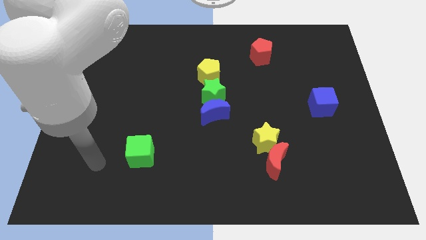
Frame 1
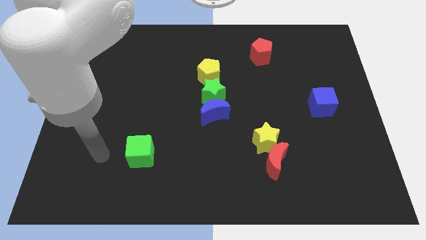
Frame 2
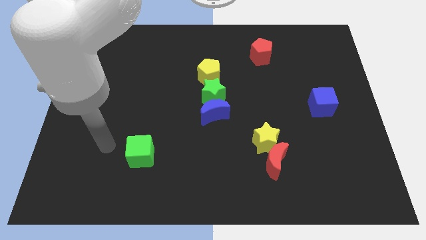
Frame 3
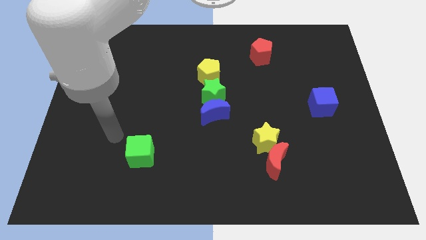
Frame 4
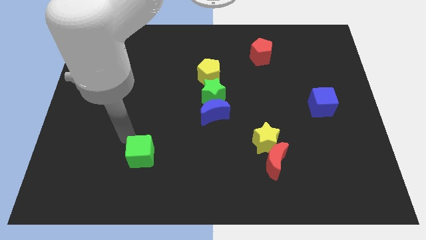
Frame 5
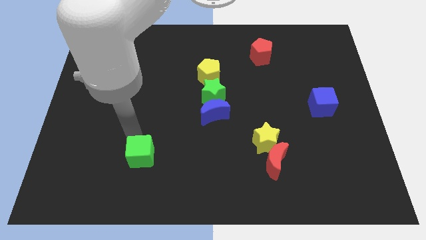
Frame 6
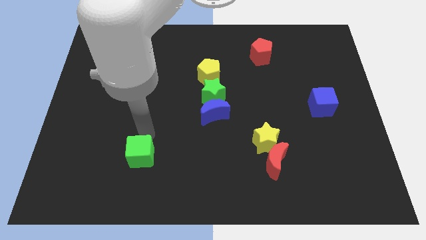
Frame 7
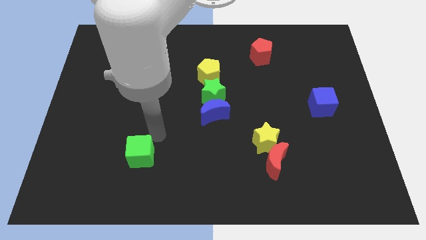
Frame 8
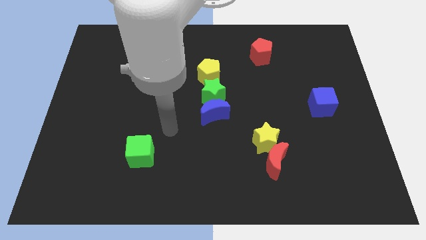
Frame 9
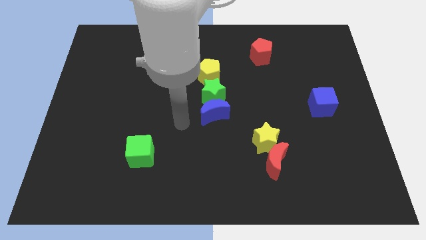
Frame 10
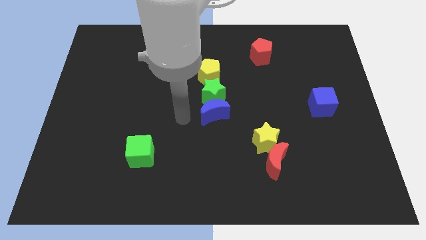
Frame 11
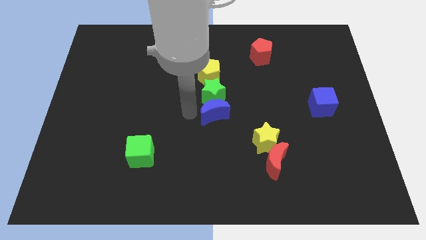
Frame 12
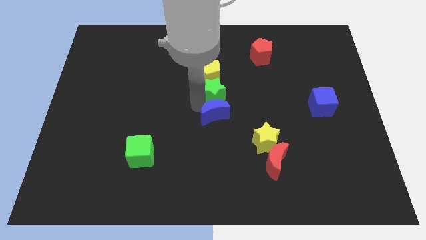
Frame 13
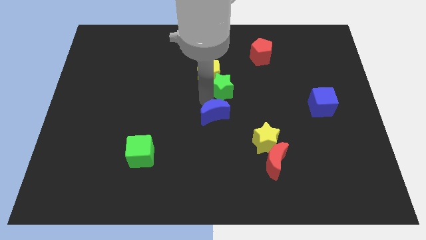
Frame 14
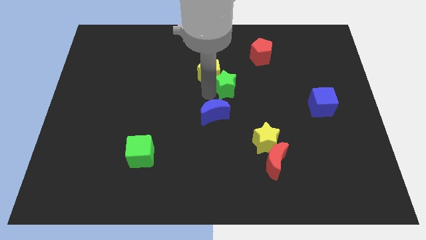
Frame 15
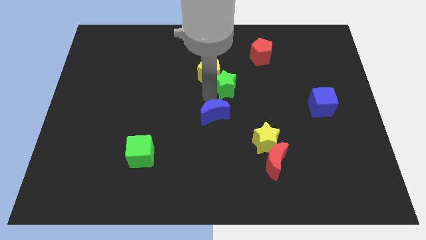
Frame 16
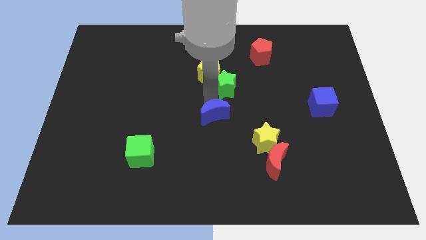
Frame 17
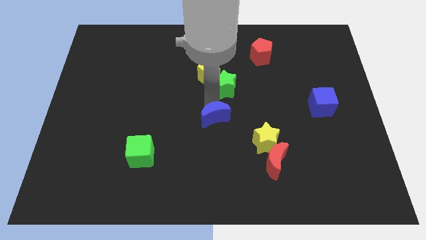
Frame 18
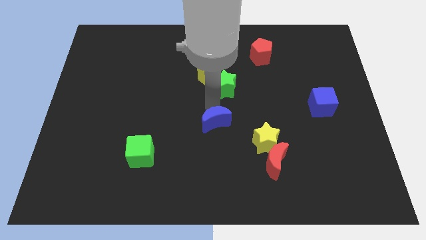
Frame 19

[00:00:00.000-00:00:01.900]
pull the blue moon apart from the green star

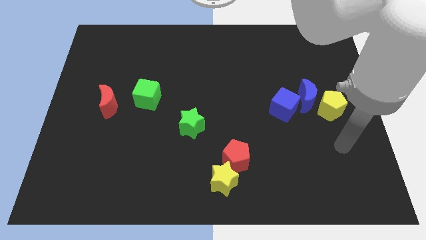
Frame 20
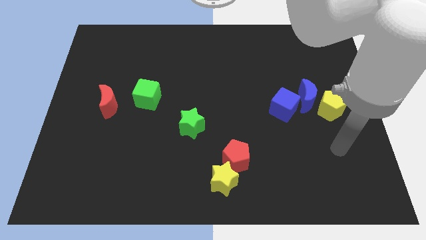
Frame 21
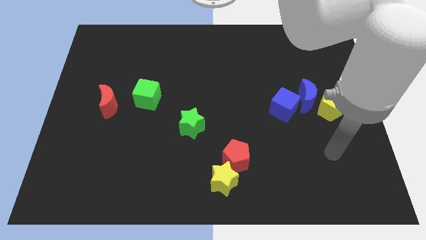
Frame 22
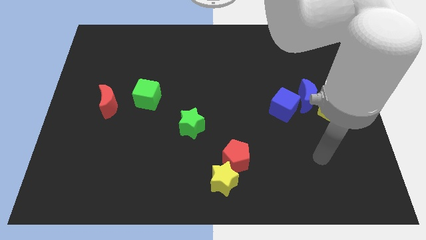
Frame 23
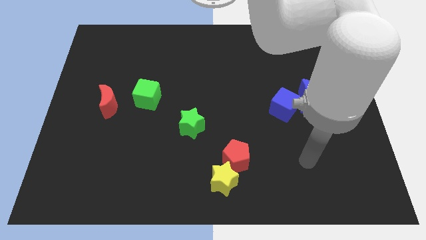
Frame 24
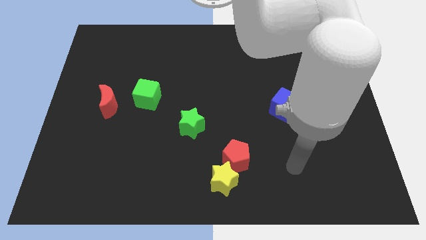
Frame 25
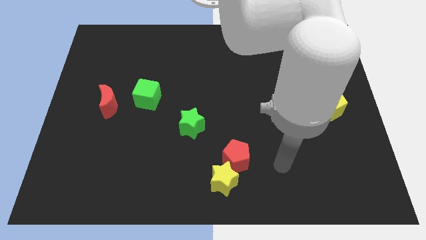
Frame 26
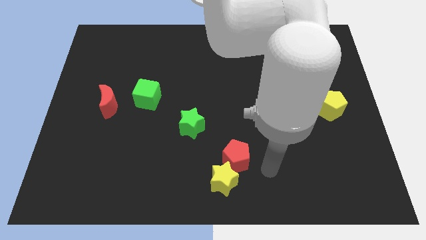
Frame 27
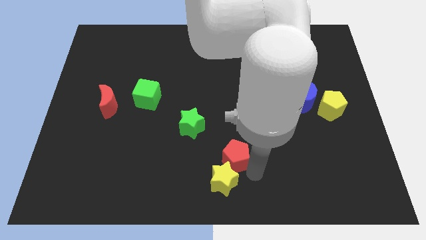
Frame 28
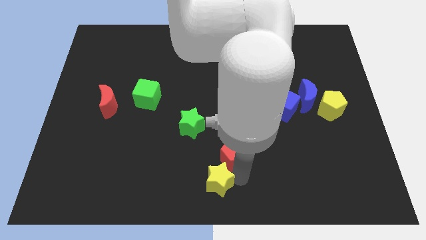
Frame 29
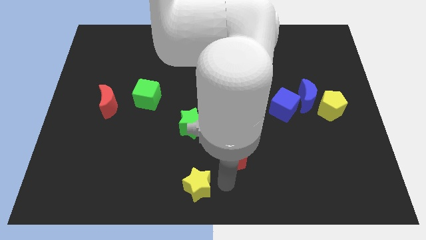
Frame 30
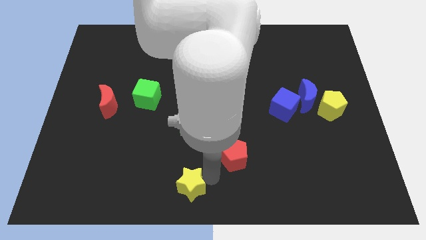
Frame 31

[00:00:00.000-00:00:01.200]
move the red pentagon away from the yellow star

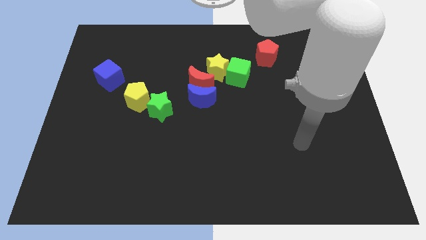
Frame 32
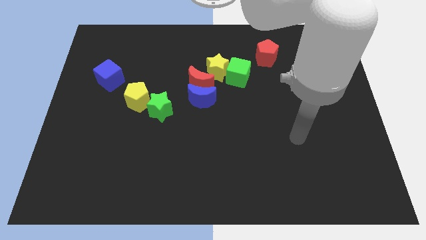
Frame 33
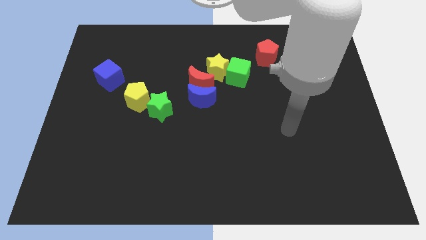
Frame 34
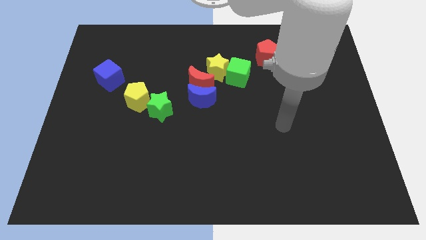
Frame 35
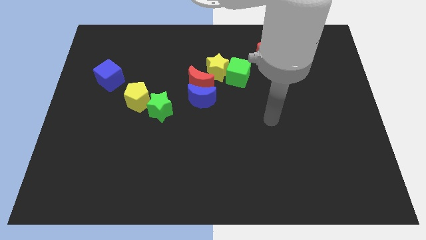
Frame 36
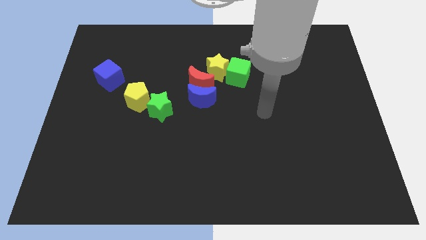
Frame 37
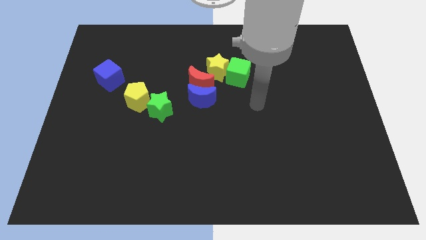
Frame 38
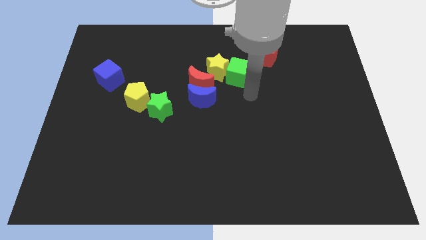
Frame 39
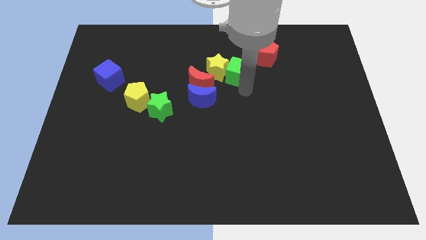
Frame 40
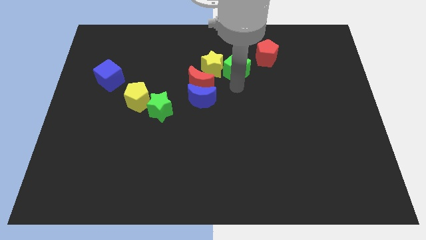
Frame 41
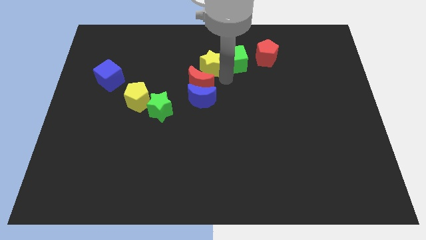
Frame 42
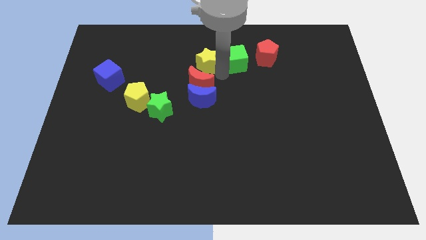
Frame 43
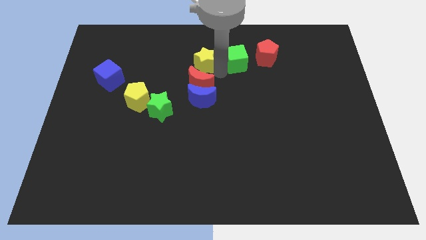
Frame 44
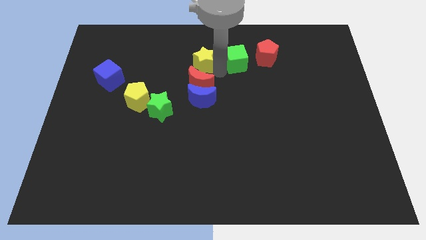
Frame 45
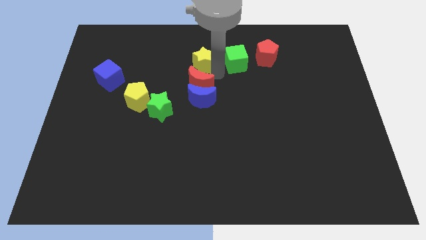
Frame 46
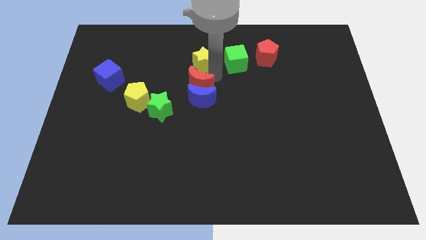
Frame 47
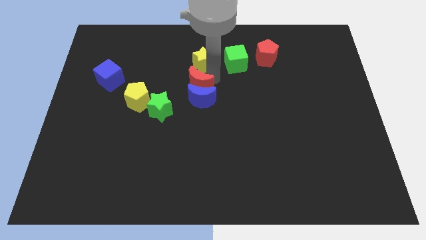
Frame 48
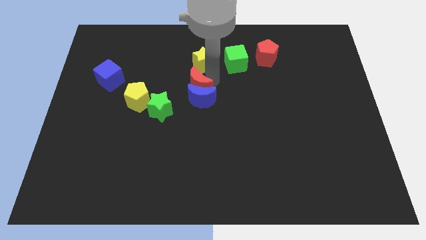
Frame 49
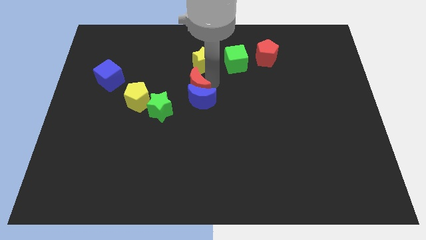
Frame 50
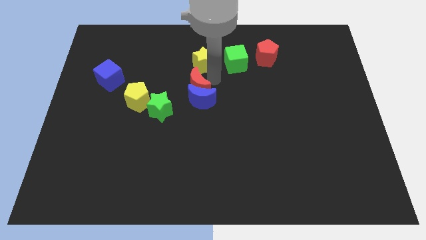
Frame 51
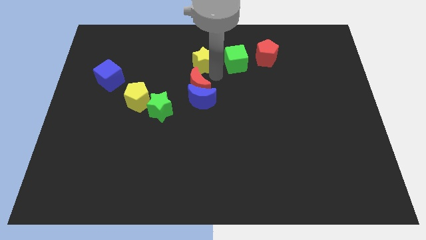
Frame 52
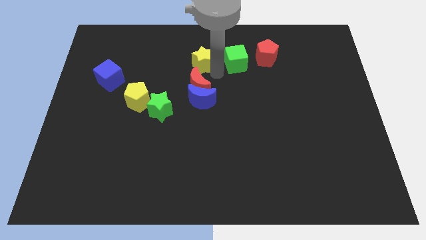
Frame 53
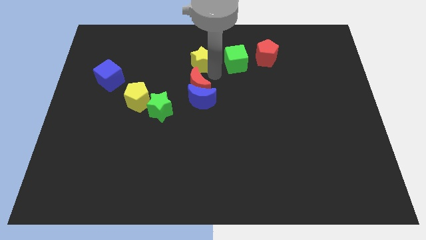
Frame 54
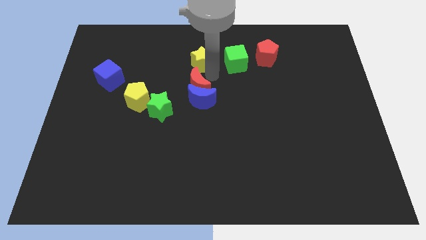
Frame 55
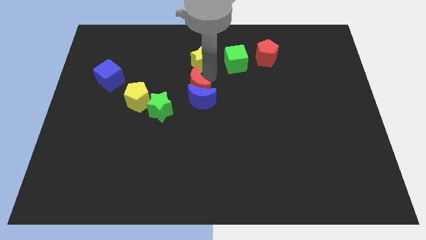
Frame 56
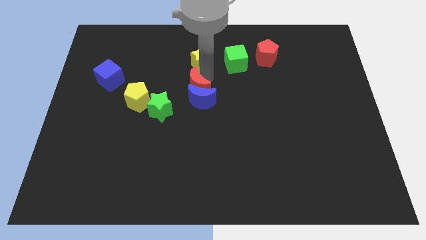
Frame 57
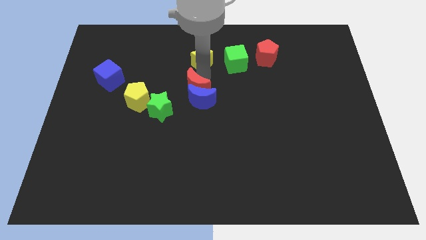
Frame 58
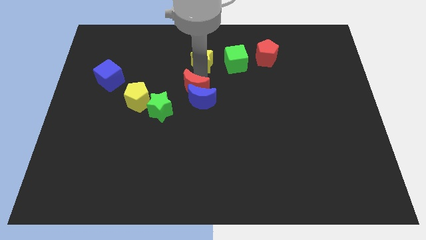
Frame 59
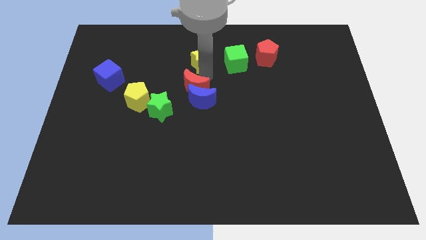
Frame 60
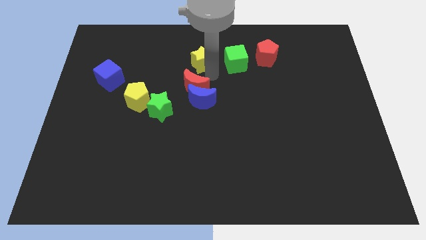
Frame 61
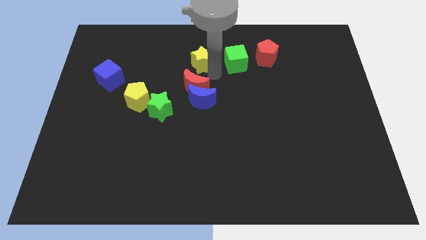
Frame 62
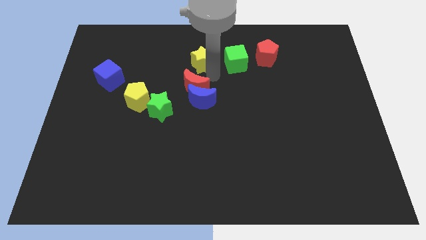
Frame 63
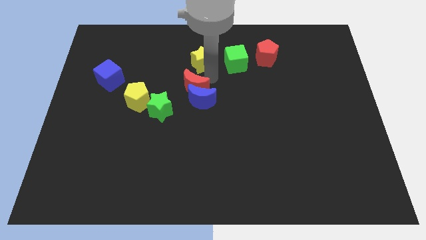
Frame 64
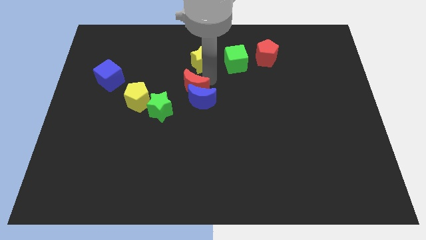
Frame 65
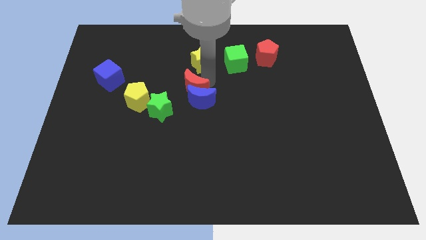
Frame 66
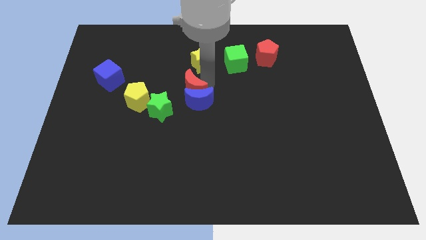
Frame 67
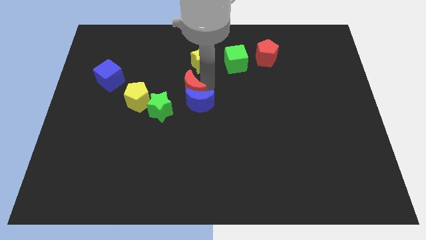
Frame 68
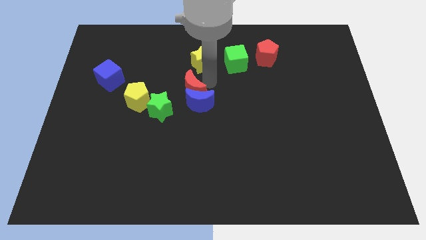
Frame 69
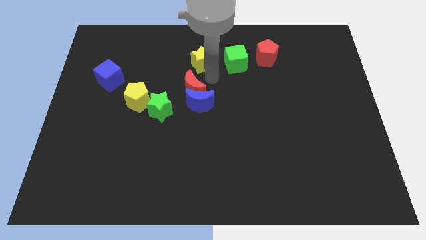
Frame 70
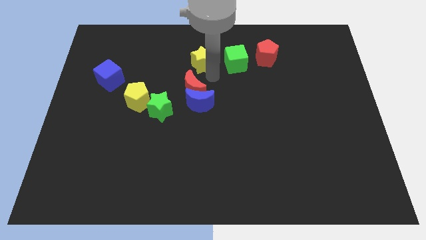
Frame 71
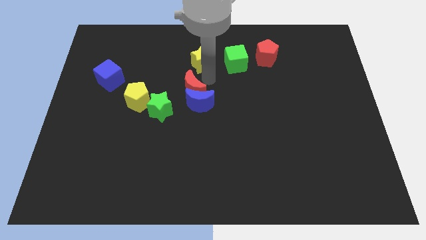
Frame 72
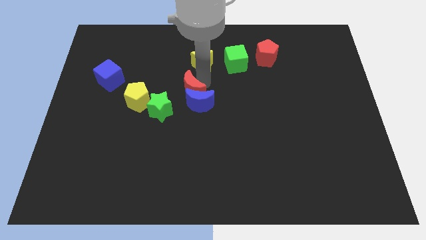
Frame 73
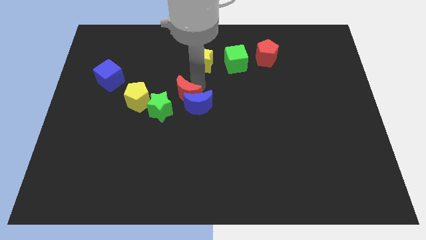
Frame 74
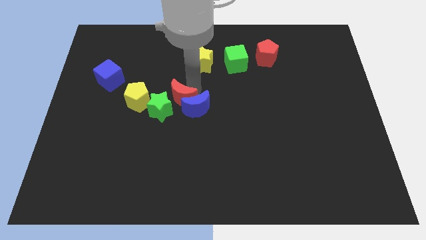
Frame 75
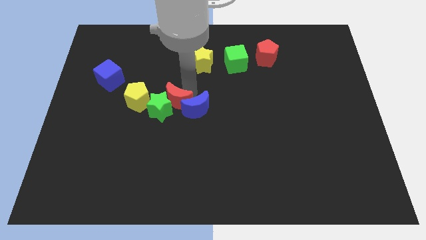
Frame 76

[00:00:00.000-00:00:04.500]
separate the red moon from the clump

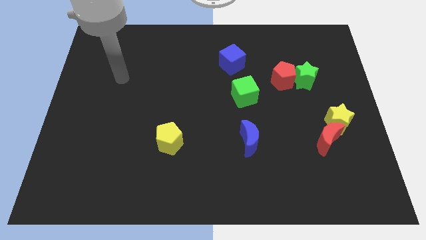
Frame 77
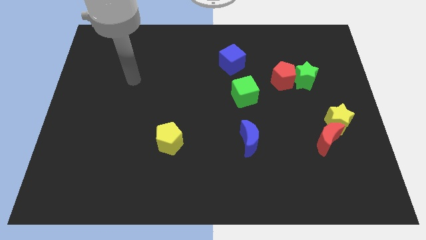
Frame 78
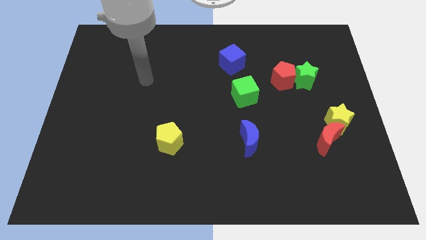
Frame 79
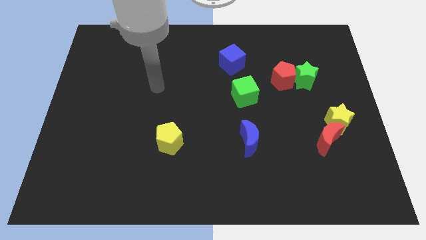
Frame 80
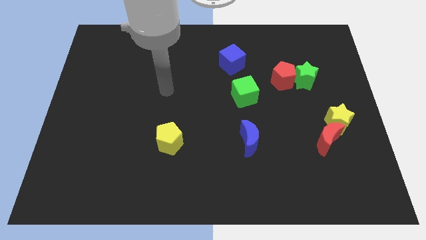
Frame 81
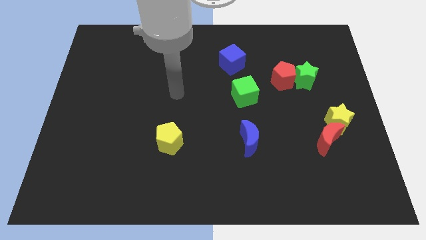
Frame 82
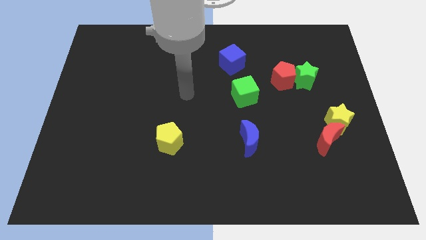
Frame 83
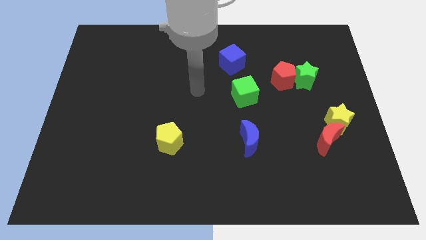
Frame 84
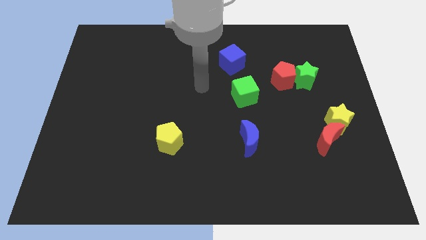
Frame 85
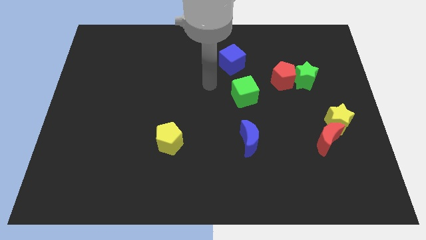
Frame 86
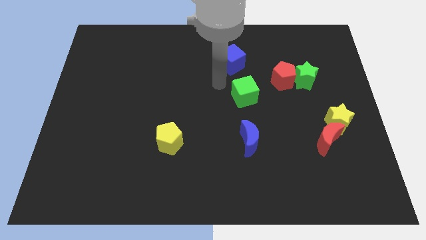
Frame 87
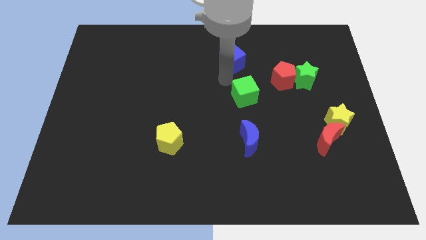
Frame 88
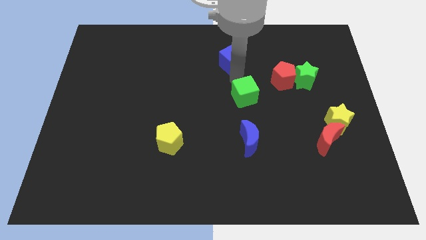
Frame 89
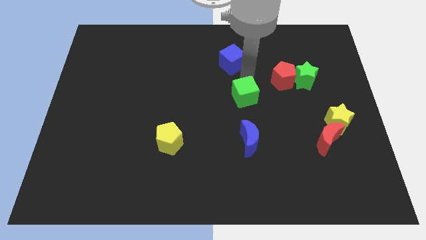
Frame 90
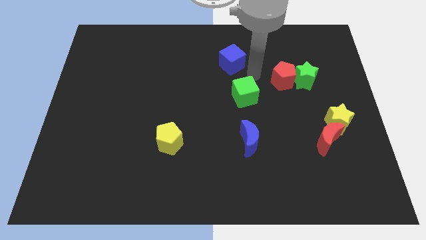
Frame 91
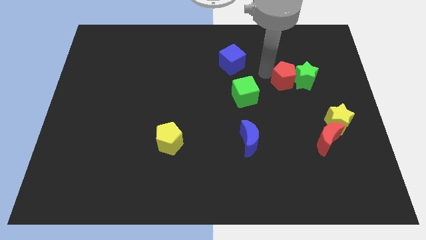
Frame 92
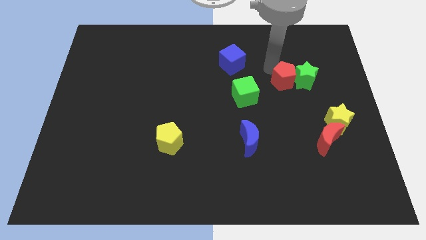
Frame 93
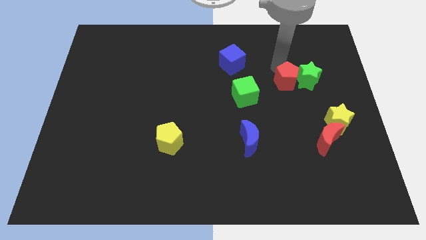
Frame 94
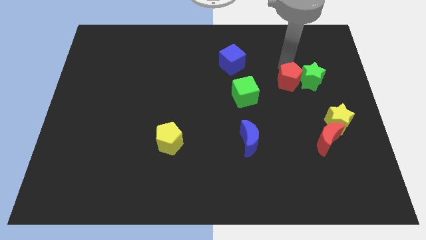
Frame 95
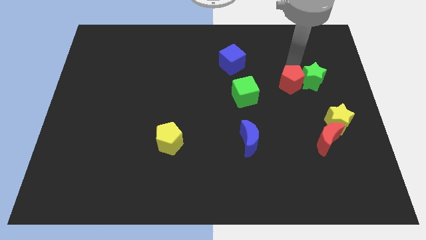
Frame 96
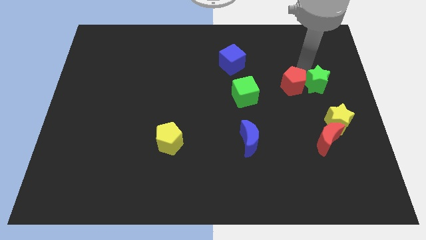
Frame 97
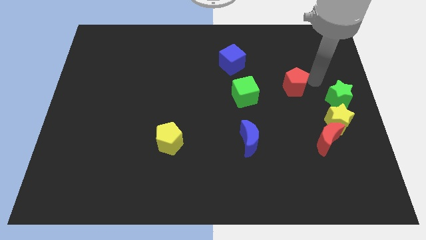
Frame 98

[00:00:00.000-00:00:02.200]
pull the red pentagon apart from the green star
